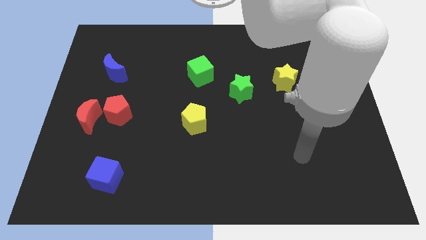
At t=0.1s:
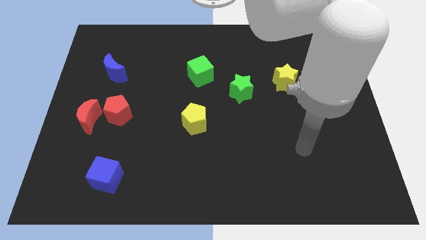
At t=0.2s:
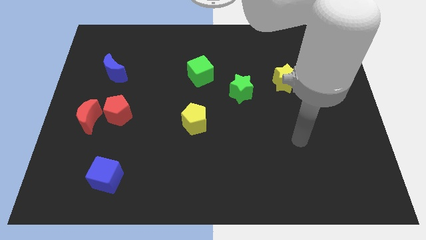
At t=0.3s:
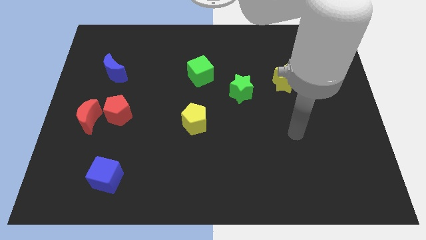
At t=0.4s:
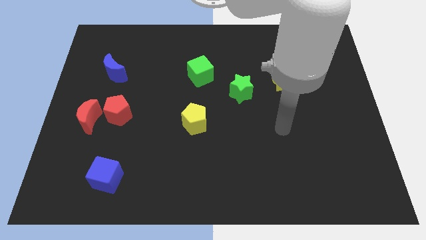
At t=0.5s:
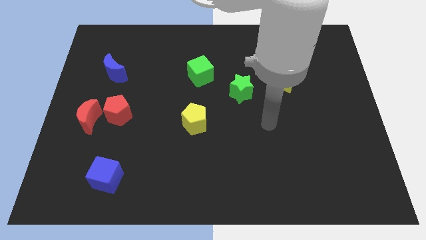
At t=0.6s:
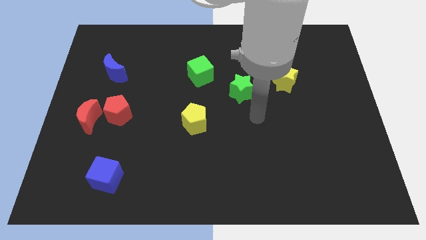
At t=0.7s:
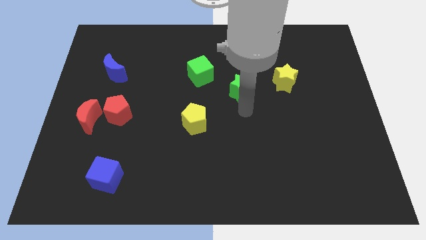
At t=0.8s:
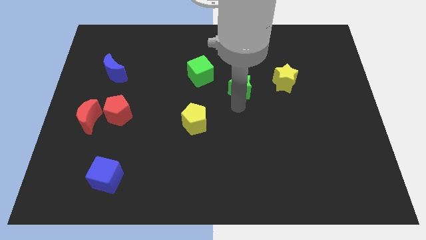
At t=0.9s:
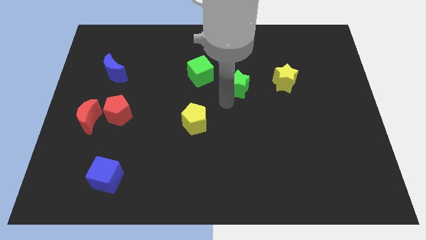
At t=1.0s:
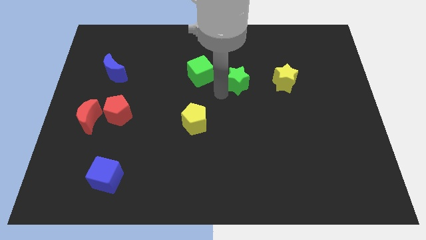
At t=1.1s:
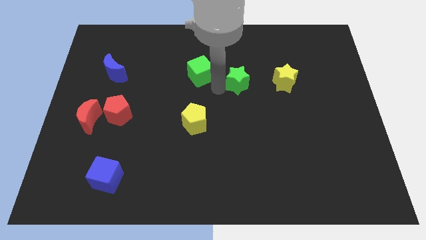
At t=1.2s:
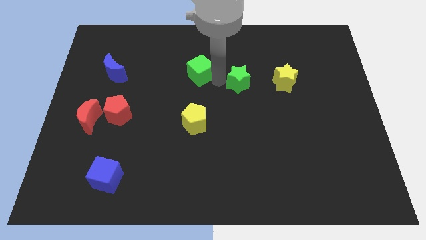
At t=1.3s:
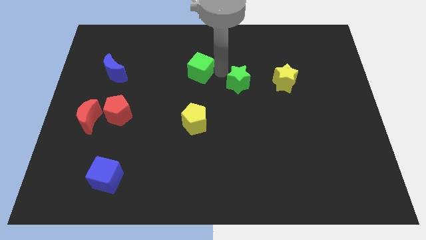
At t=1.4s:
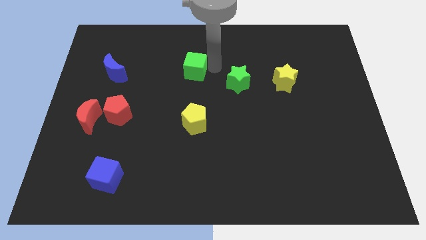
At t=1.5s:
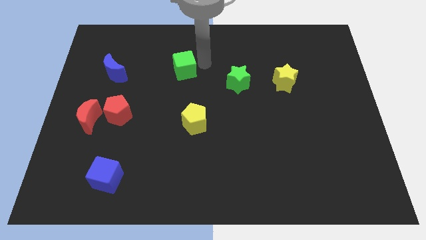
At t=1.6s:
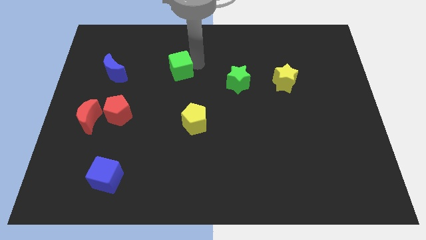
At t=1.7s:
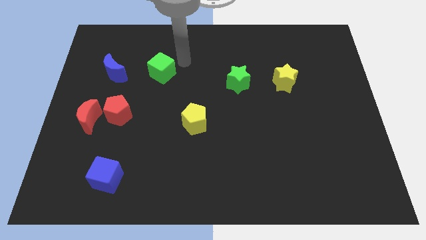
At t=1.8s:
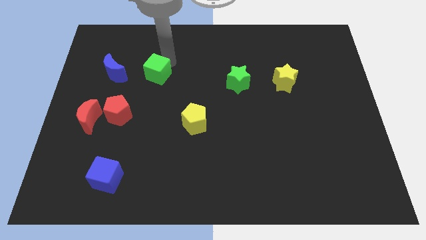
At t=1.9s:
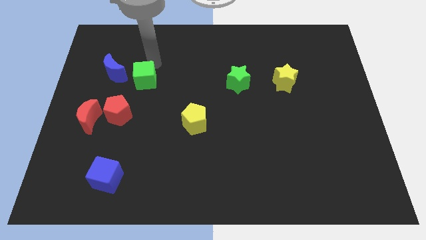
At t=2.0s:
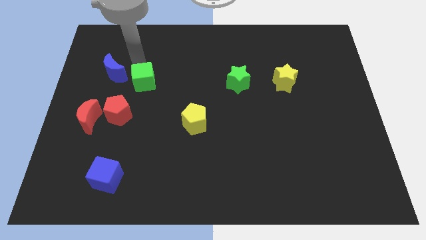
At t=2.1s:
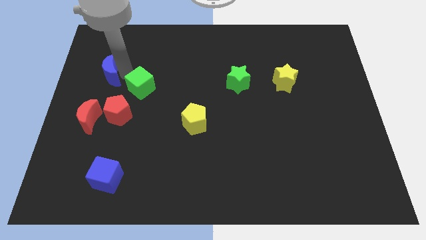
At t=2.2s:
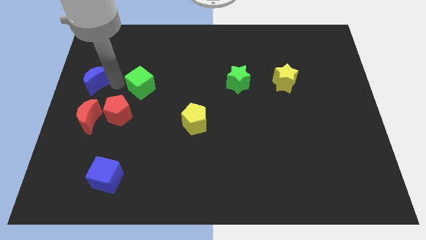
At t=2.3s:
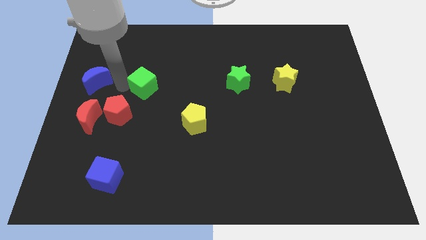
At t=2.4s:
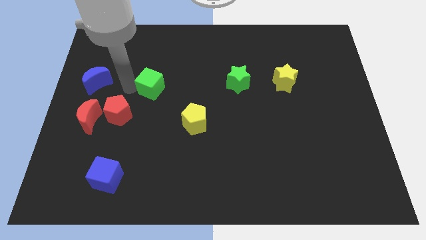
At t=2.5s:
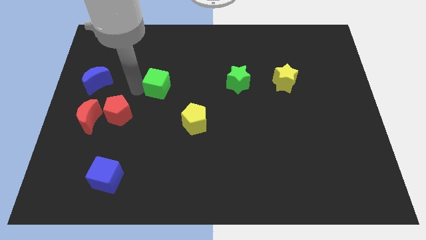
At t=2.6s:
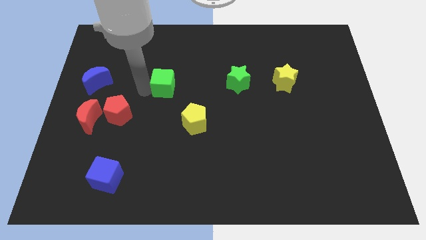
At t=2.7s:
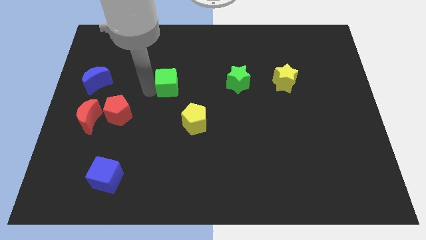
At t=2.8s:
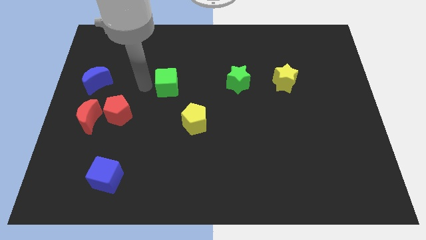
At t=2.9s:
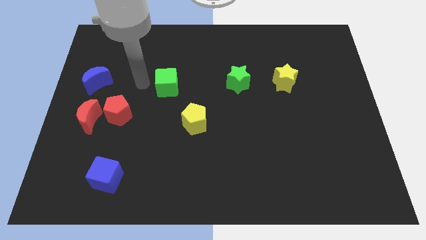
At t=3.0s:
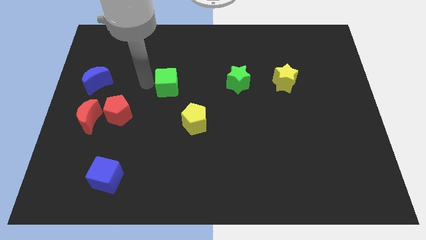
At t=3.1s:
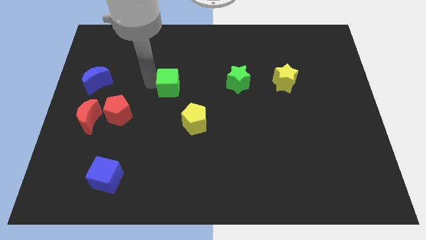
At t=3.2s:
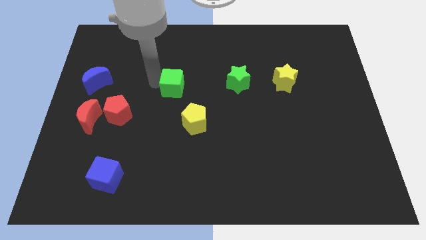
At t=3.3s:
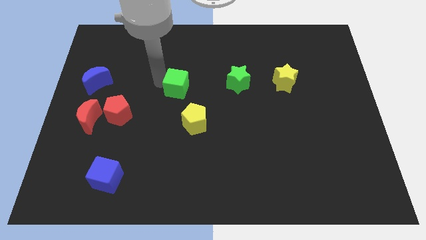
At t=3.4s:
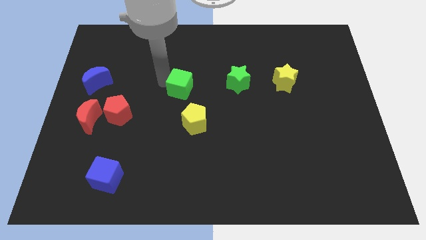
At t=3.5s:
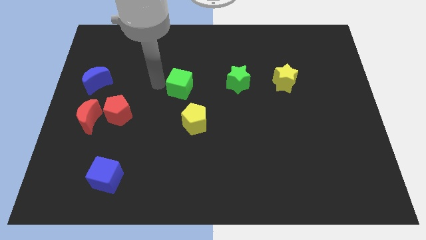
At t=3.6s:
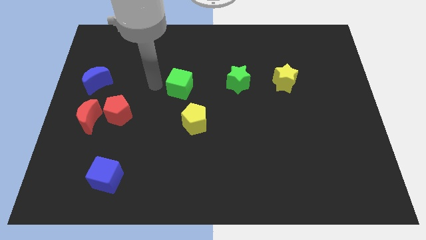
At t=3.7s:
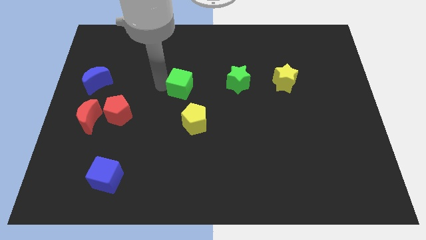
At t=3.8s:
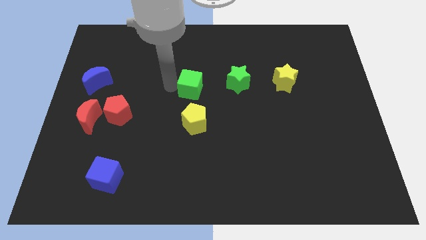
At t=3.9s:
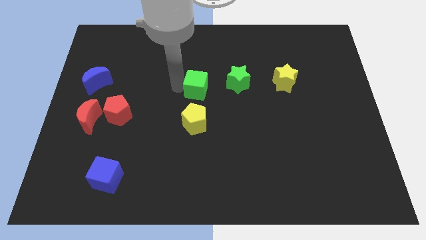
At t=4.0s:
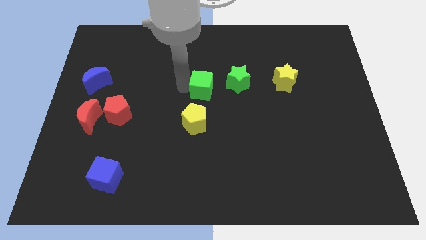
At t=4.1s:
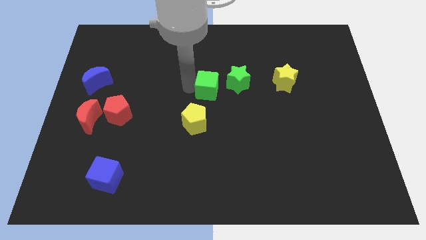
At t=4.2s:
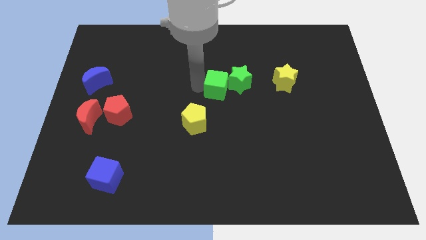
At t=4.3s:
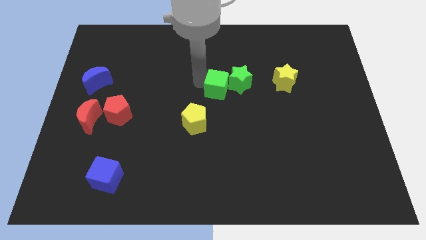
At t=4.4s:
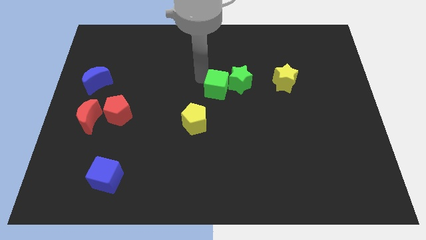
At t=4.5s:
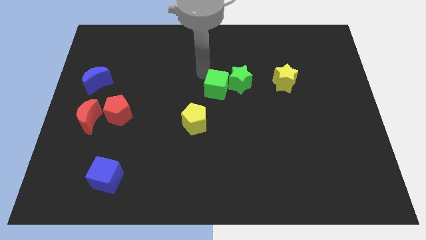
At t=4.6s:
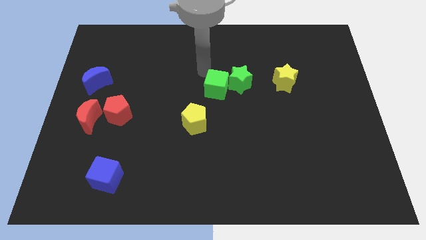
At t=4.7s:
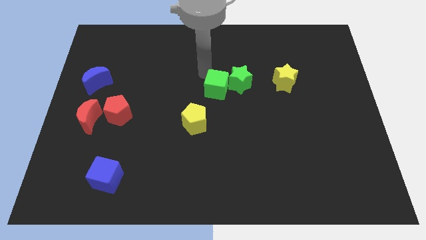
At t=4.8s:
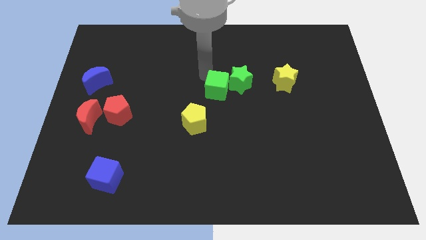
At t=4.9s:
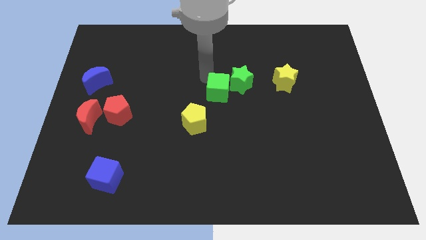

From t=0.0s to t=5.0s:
push the green cube a little down and then to the right

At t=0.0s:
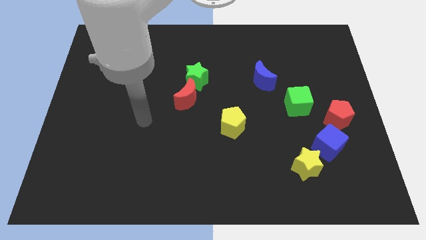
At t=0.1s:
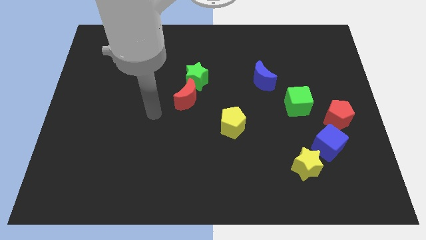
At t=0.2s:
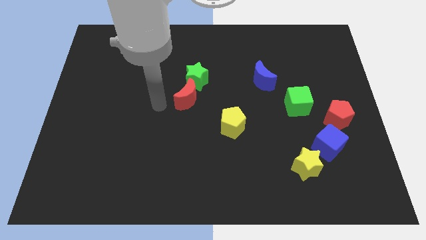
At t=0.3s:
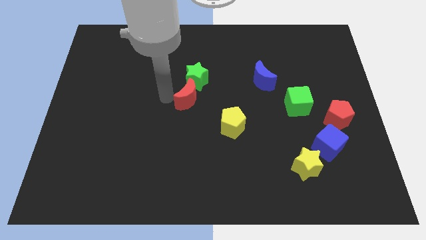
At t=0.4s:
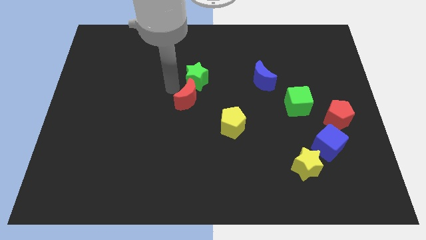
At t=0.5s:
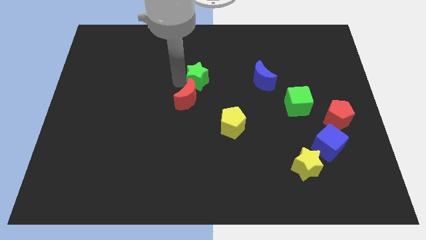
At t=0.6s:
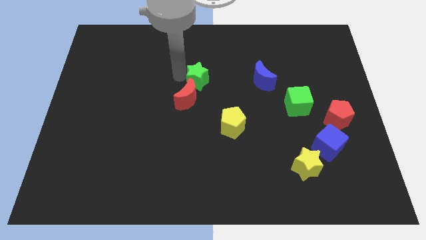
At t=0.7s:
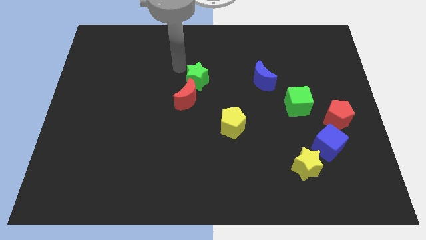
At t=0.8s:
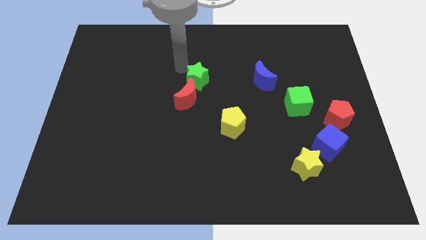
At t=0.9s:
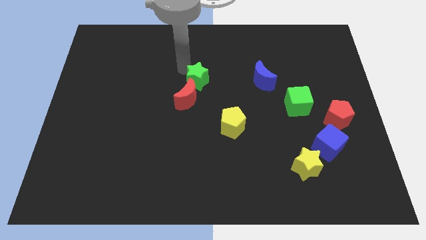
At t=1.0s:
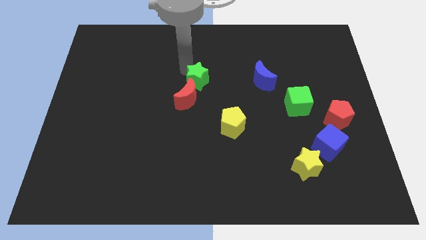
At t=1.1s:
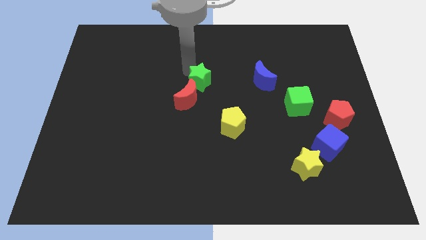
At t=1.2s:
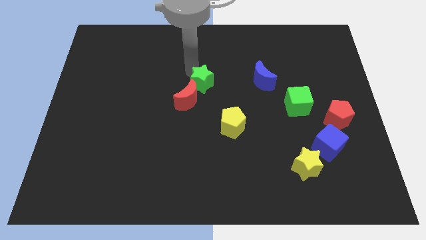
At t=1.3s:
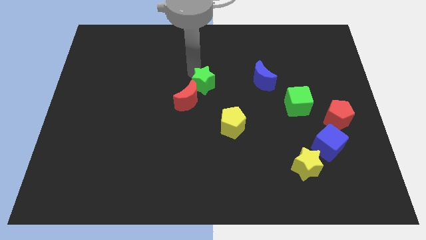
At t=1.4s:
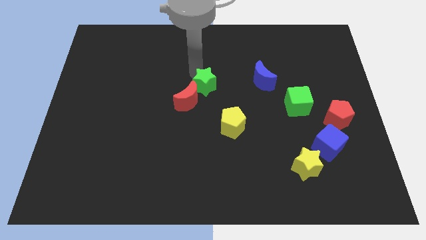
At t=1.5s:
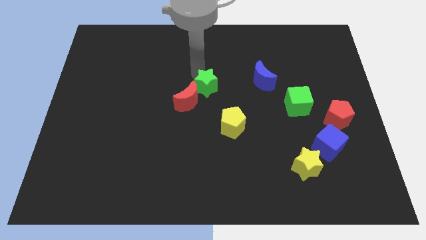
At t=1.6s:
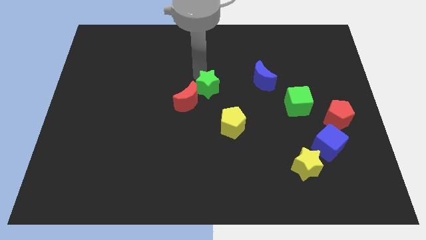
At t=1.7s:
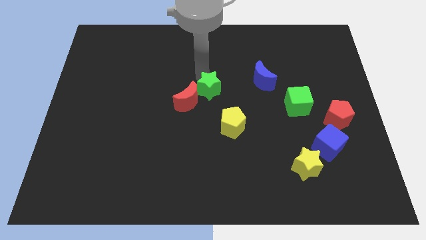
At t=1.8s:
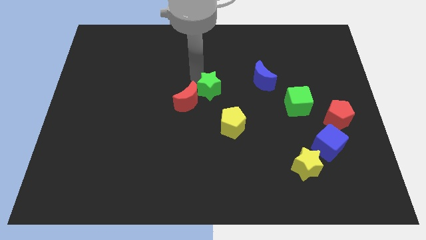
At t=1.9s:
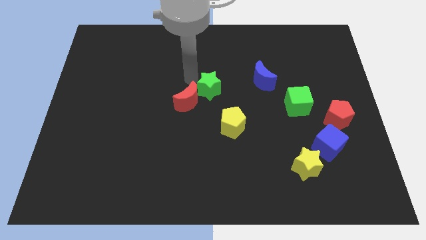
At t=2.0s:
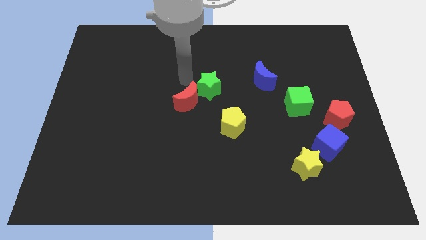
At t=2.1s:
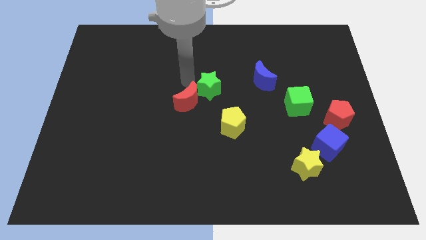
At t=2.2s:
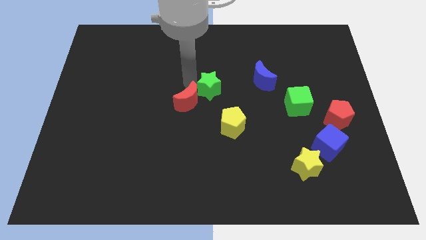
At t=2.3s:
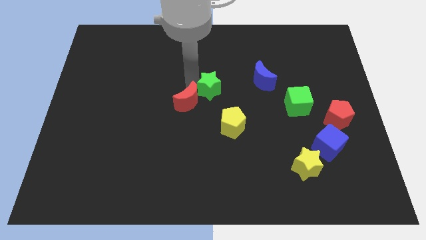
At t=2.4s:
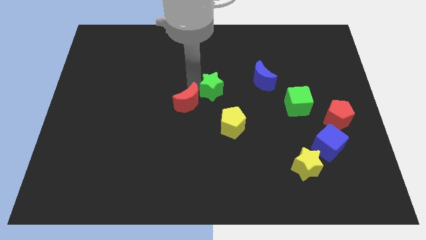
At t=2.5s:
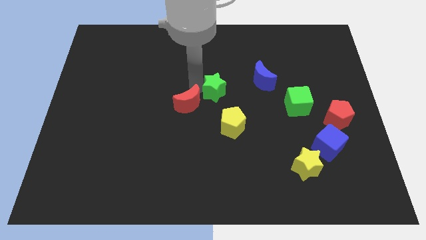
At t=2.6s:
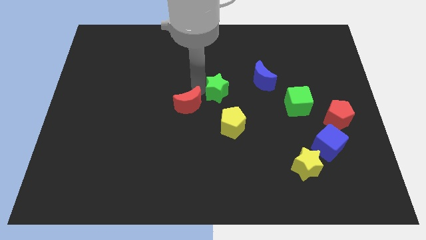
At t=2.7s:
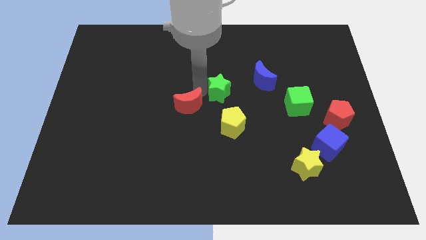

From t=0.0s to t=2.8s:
push the green star diagonally downwards and to the right somewhat
